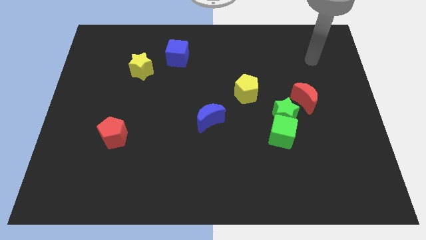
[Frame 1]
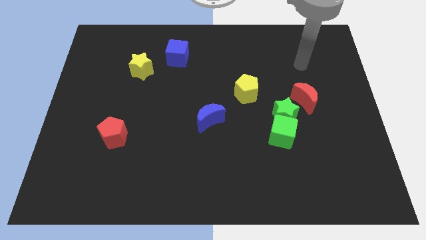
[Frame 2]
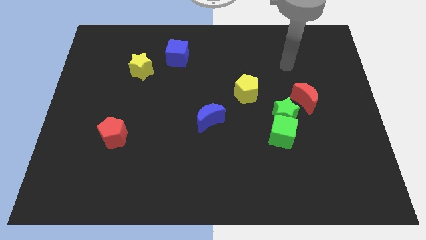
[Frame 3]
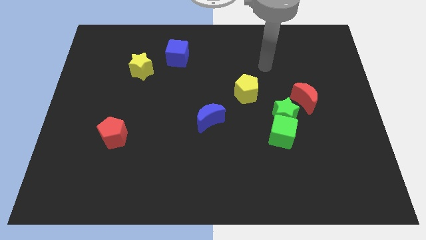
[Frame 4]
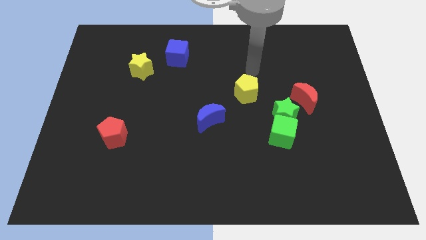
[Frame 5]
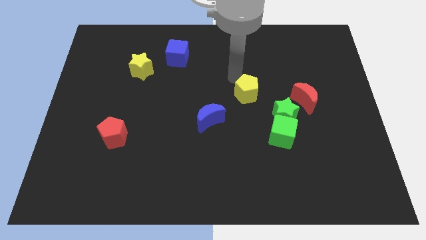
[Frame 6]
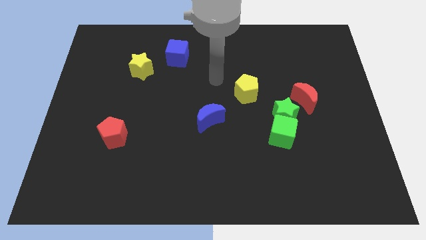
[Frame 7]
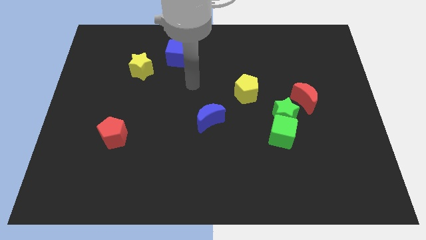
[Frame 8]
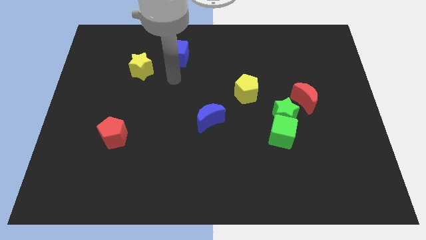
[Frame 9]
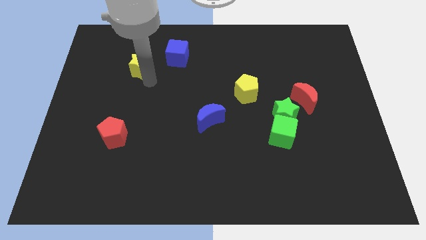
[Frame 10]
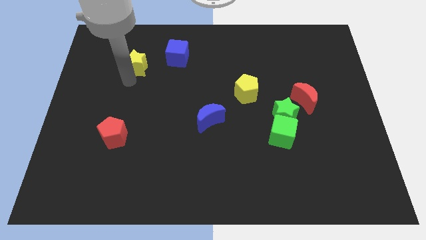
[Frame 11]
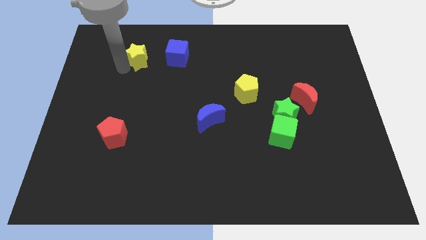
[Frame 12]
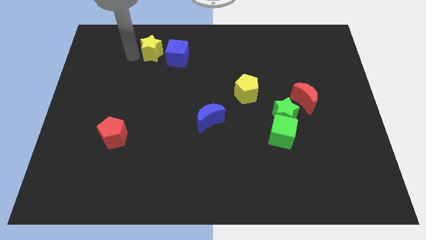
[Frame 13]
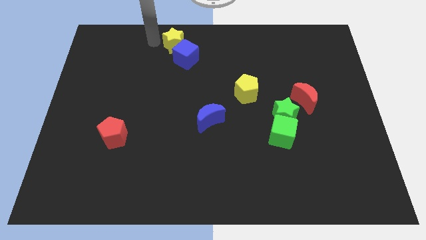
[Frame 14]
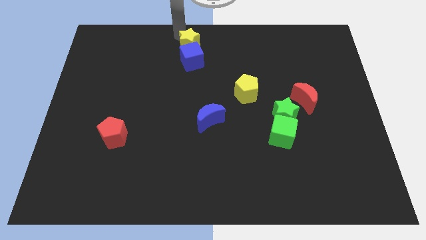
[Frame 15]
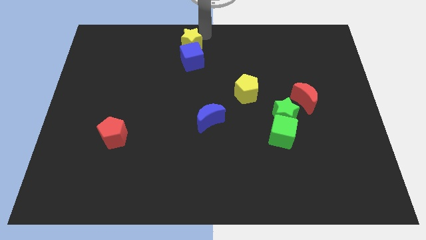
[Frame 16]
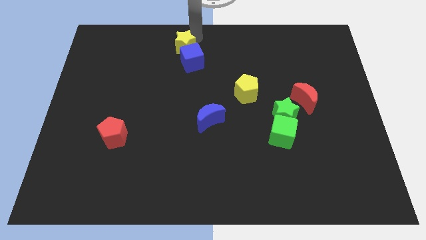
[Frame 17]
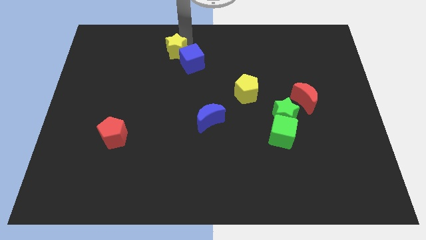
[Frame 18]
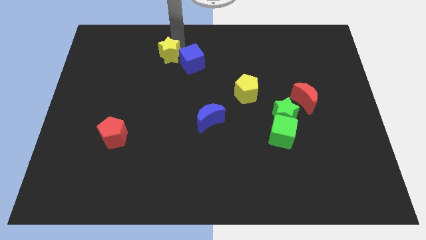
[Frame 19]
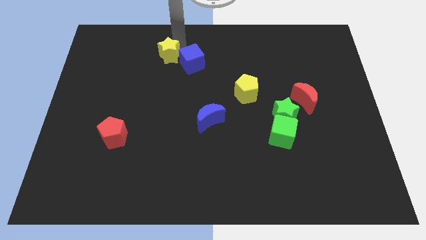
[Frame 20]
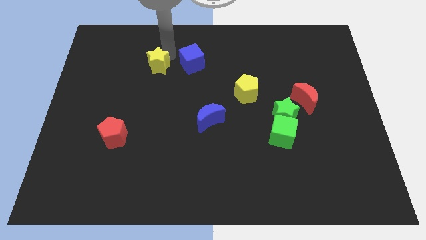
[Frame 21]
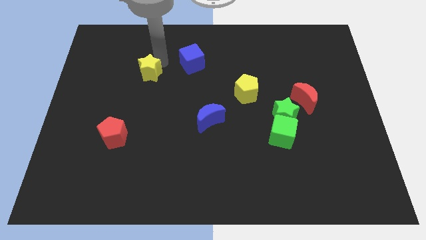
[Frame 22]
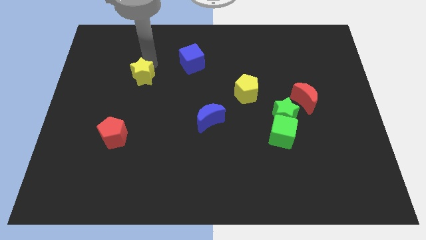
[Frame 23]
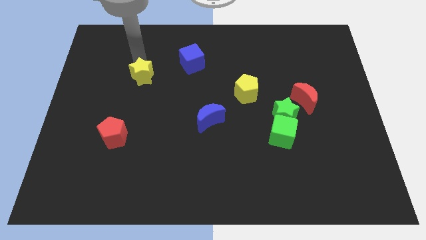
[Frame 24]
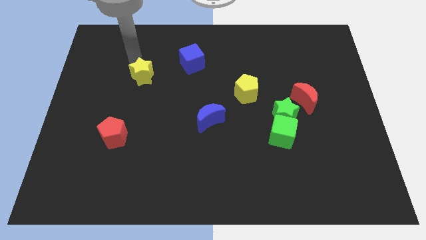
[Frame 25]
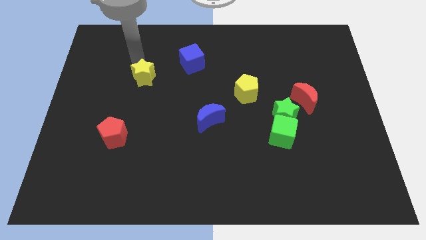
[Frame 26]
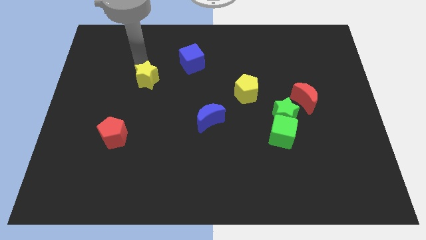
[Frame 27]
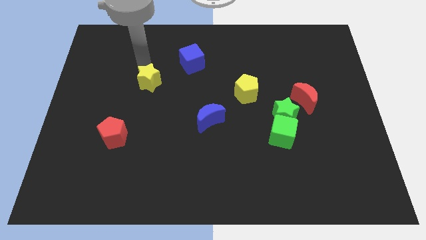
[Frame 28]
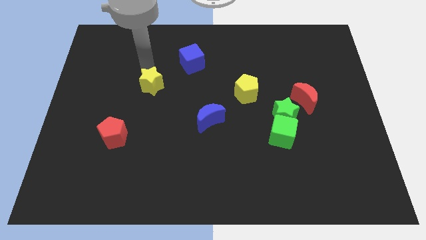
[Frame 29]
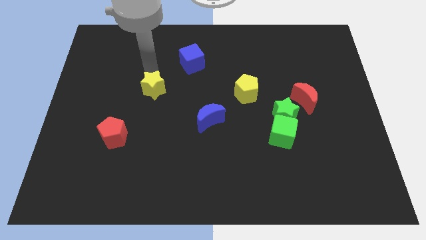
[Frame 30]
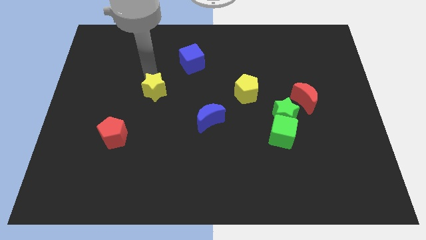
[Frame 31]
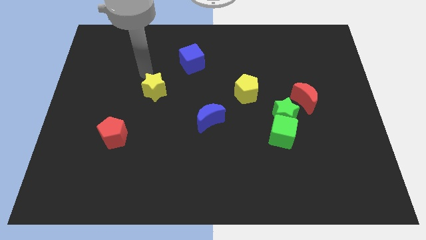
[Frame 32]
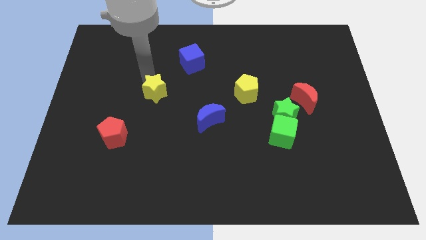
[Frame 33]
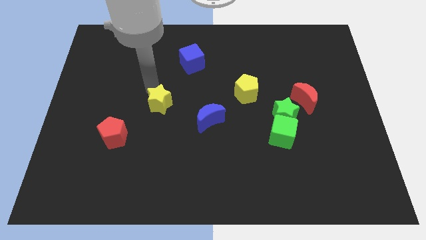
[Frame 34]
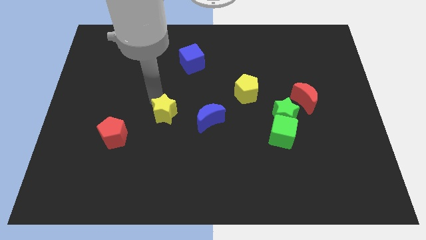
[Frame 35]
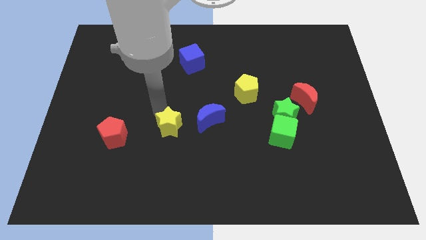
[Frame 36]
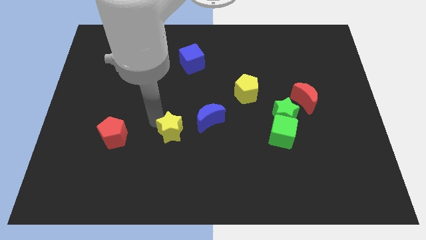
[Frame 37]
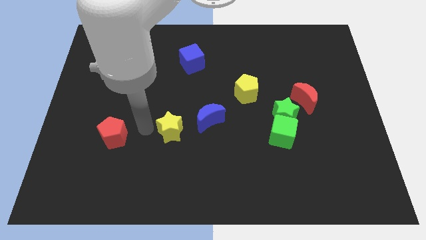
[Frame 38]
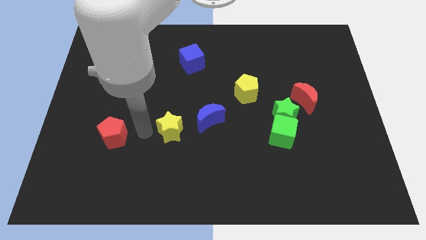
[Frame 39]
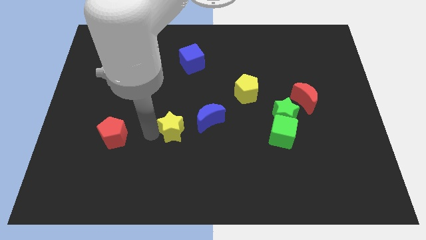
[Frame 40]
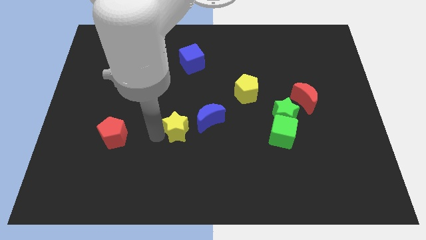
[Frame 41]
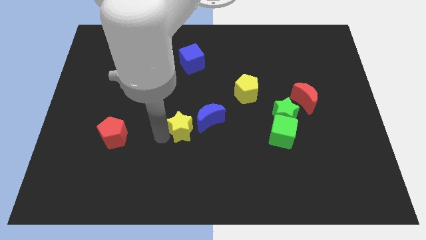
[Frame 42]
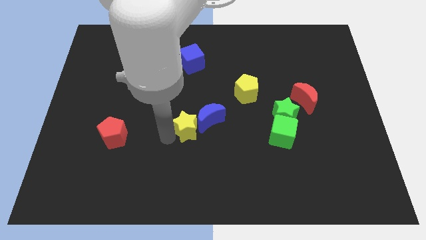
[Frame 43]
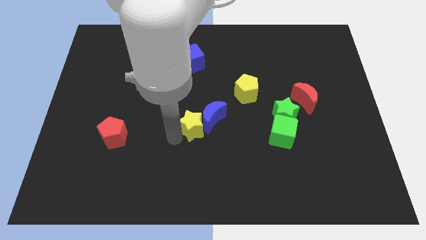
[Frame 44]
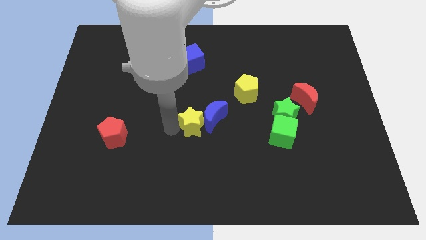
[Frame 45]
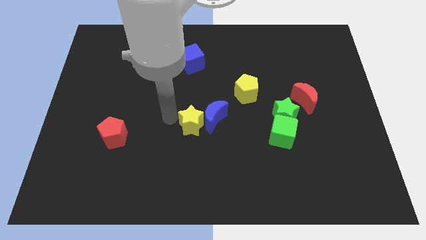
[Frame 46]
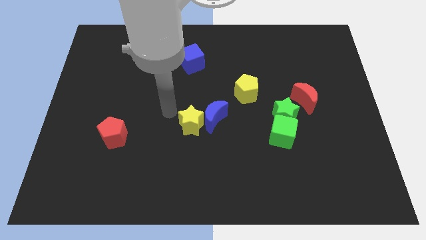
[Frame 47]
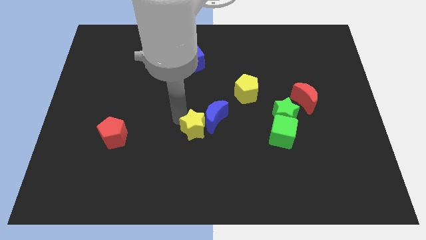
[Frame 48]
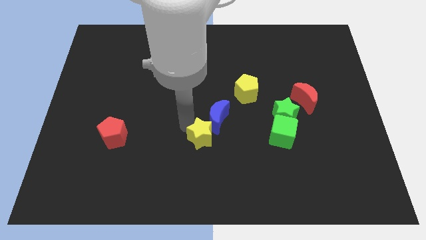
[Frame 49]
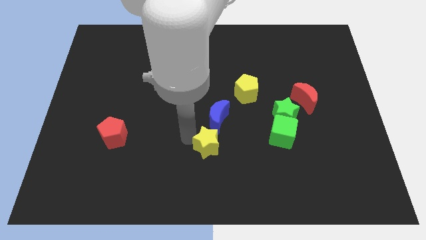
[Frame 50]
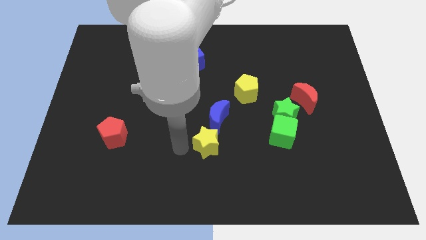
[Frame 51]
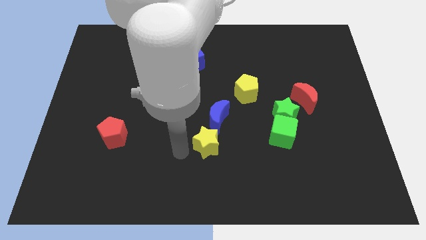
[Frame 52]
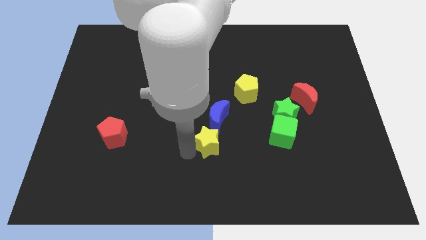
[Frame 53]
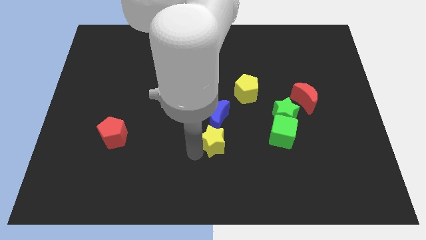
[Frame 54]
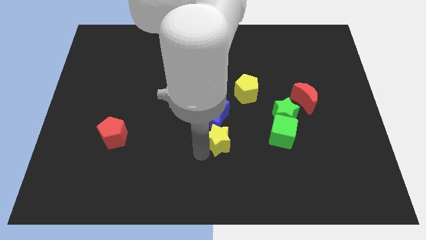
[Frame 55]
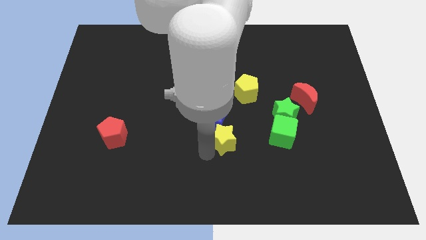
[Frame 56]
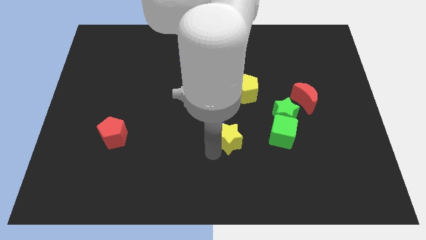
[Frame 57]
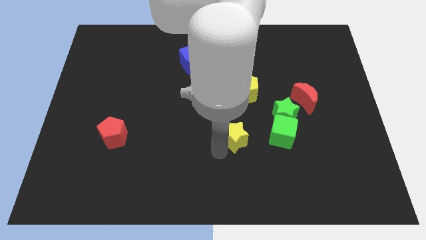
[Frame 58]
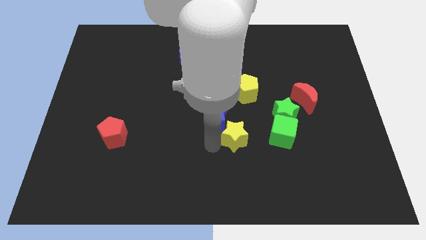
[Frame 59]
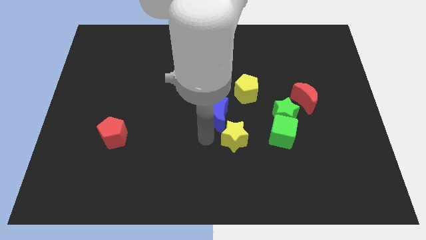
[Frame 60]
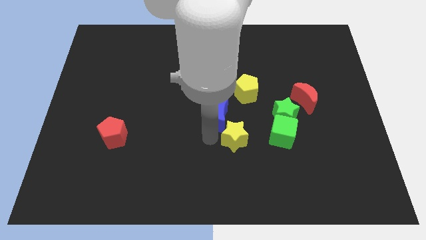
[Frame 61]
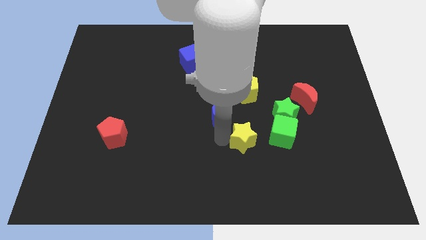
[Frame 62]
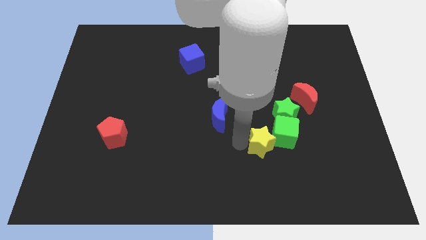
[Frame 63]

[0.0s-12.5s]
put the yellow star to the green cube

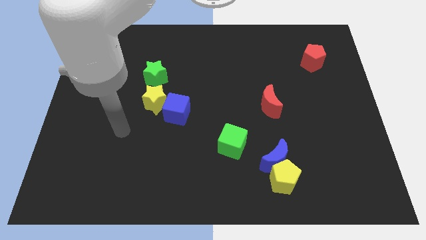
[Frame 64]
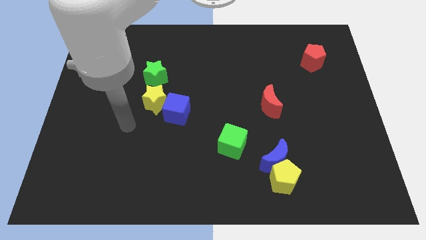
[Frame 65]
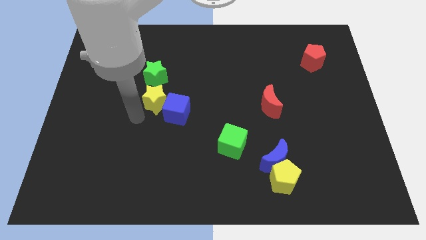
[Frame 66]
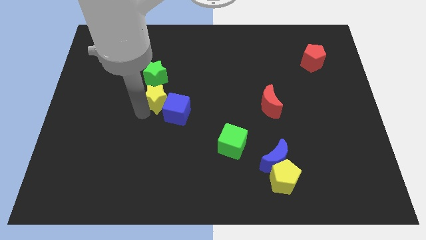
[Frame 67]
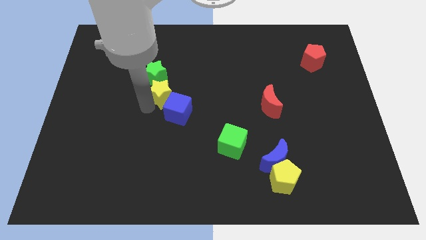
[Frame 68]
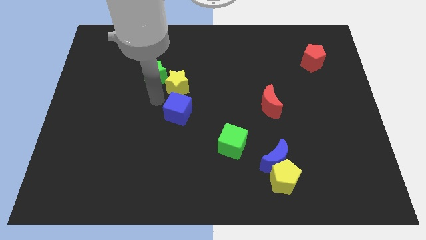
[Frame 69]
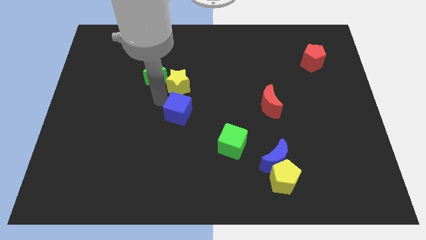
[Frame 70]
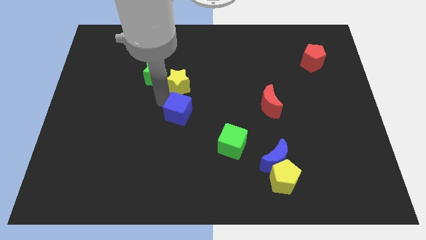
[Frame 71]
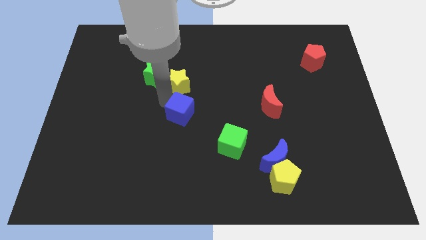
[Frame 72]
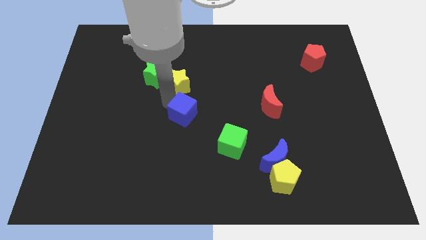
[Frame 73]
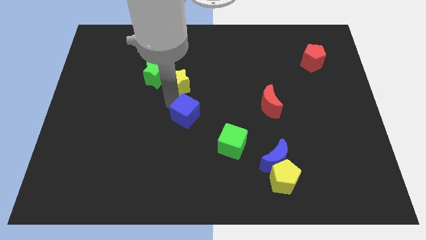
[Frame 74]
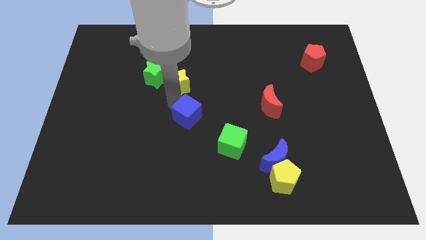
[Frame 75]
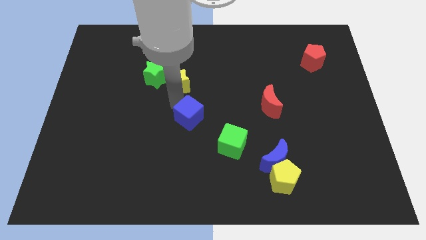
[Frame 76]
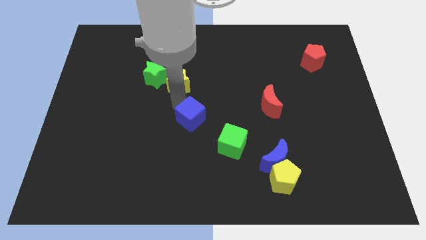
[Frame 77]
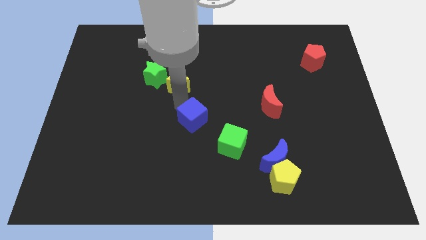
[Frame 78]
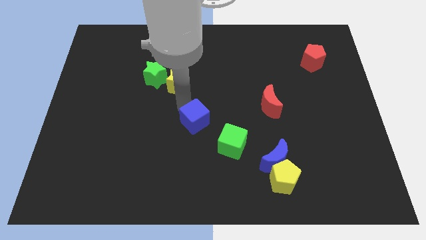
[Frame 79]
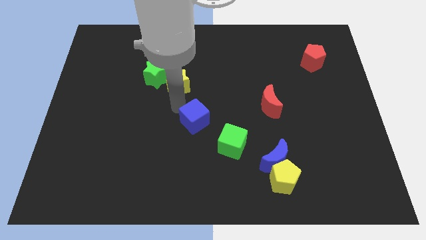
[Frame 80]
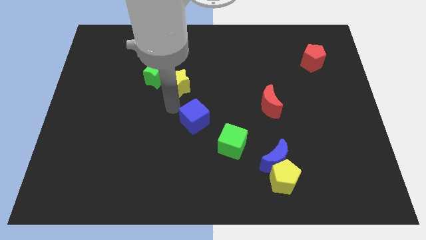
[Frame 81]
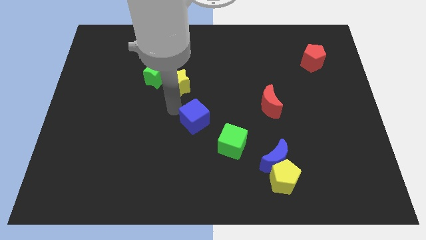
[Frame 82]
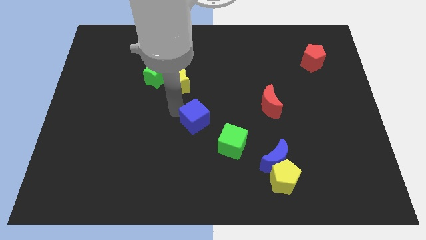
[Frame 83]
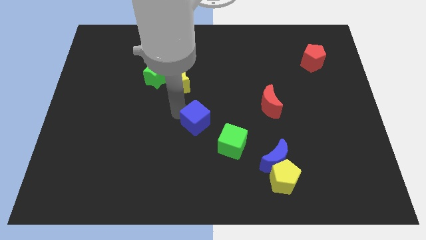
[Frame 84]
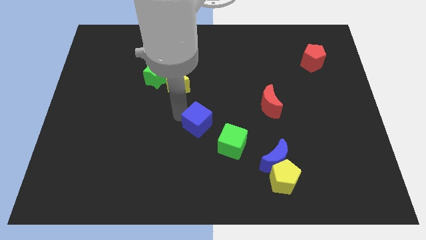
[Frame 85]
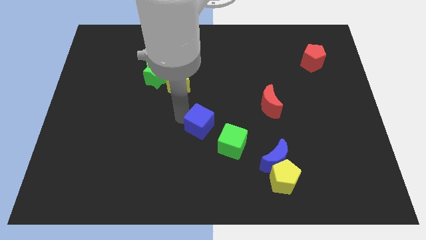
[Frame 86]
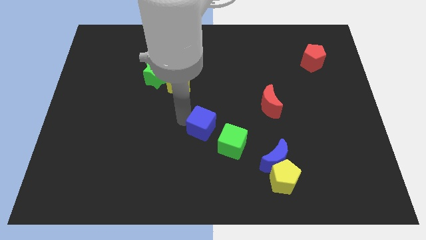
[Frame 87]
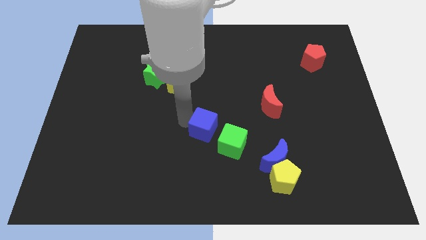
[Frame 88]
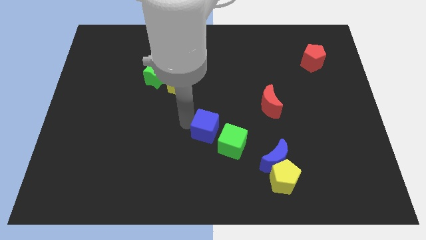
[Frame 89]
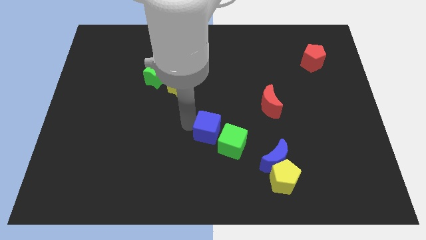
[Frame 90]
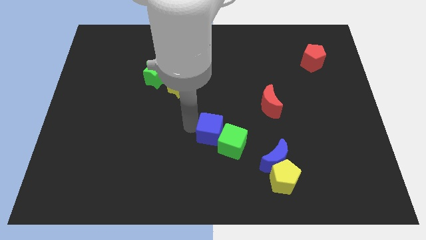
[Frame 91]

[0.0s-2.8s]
push the blue cube to the green cube
